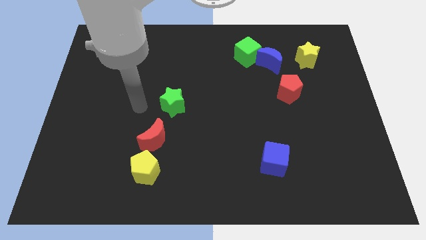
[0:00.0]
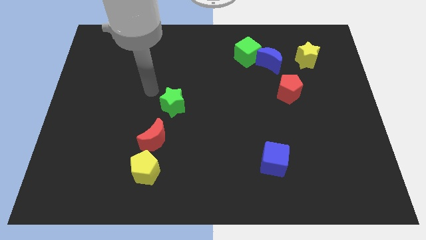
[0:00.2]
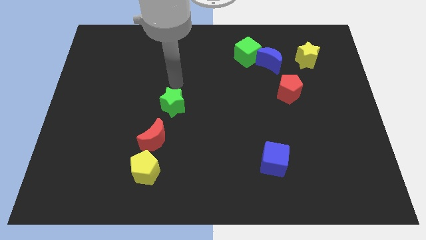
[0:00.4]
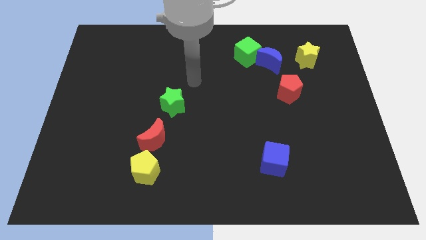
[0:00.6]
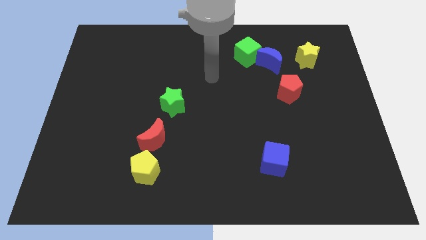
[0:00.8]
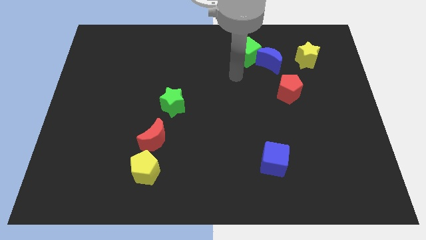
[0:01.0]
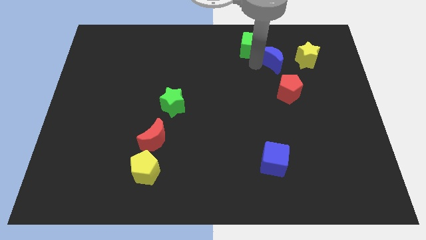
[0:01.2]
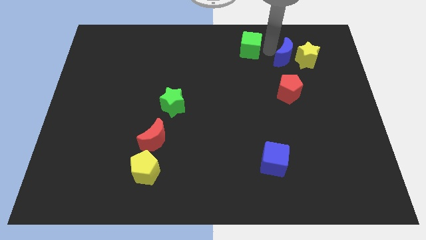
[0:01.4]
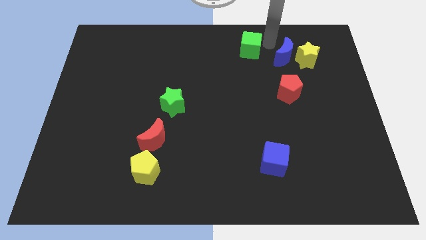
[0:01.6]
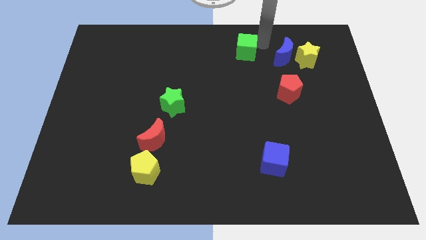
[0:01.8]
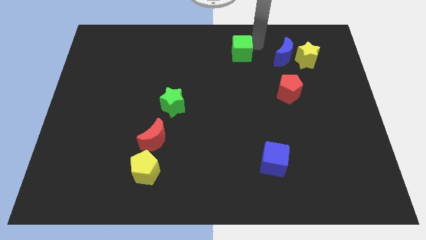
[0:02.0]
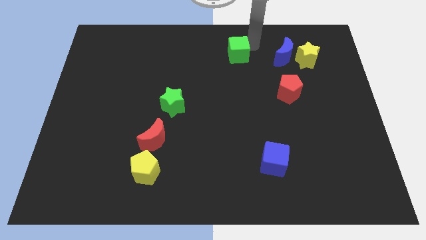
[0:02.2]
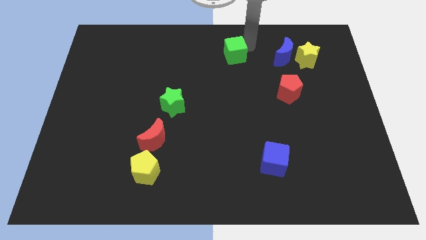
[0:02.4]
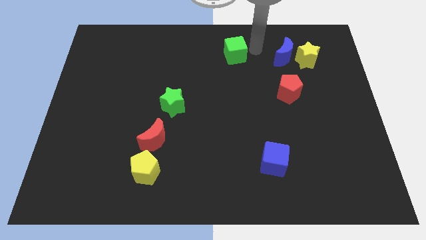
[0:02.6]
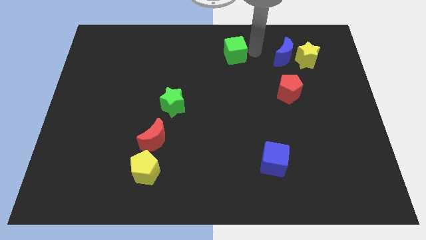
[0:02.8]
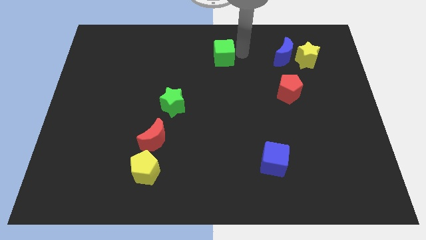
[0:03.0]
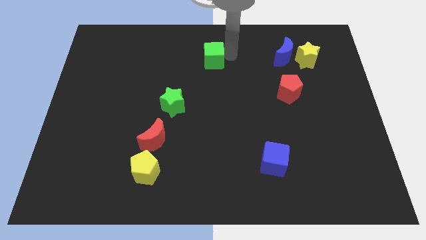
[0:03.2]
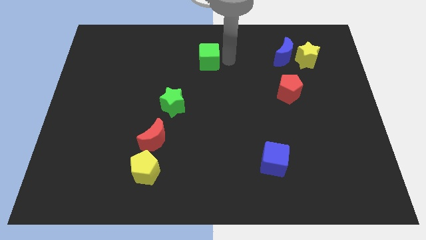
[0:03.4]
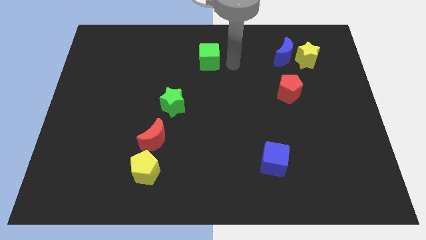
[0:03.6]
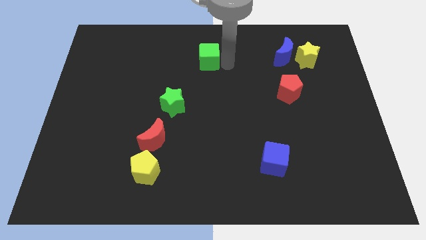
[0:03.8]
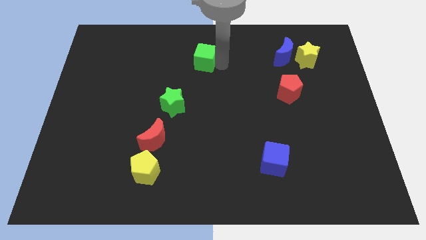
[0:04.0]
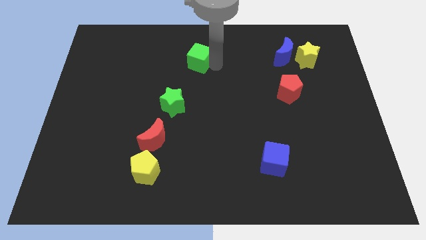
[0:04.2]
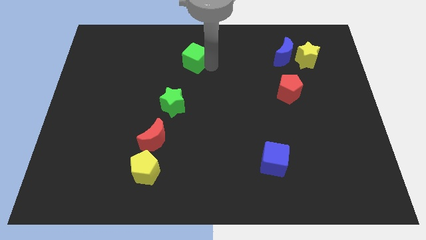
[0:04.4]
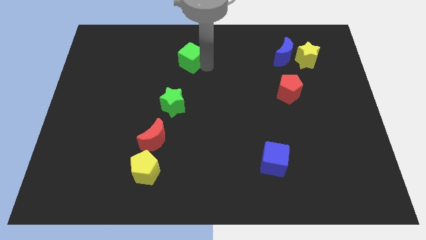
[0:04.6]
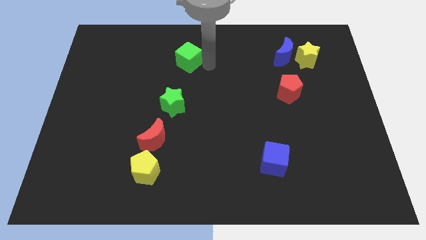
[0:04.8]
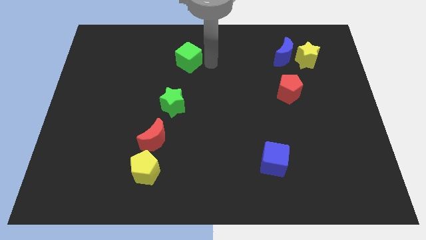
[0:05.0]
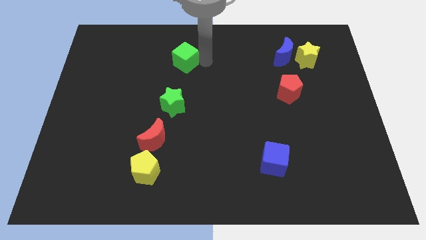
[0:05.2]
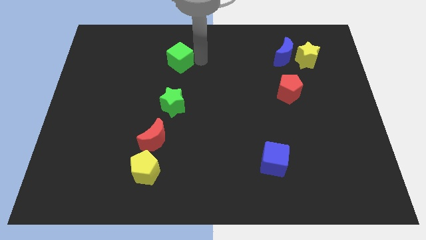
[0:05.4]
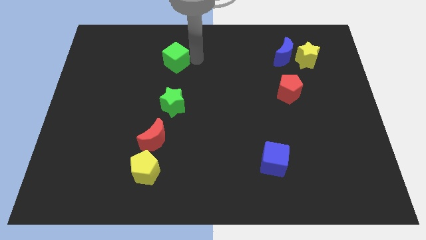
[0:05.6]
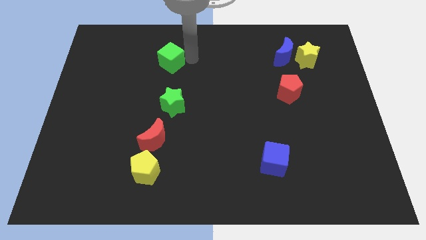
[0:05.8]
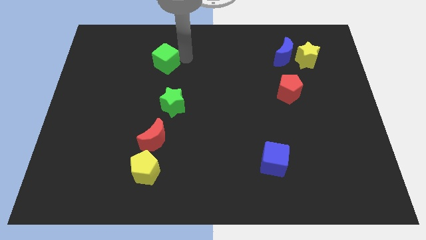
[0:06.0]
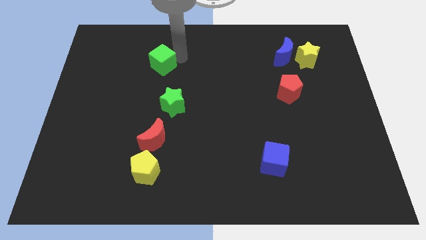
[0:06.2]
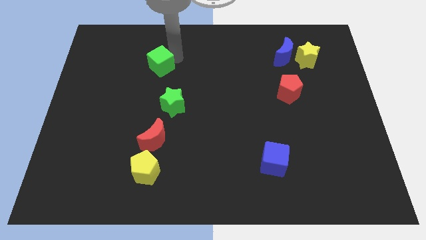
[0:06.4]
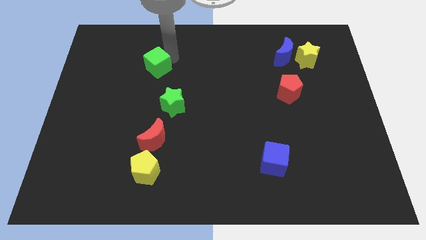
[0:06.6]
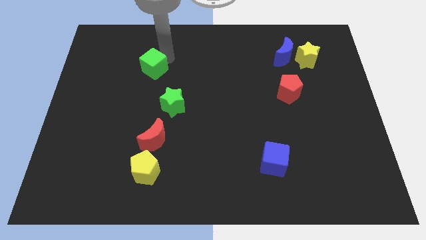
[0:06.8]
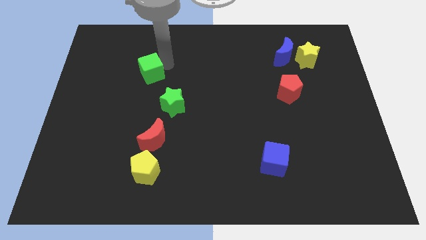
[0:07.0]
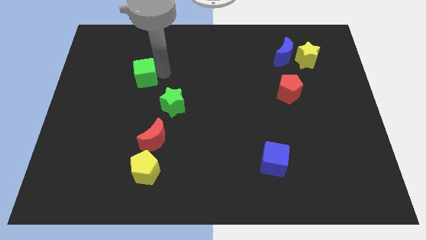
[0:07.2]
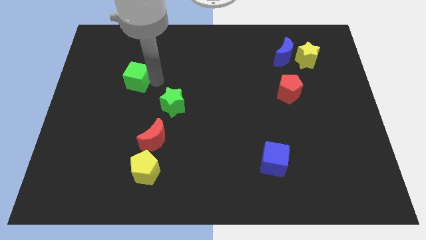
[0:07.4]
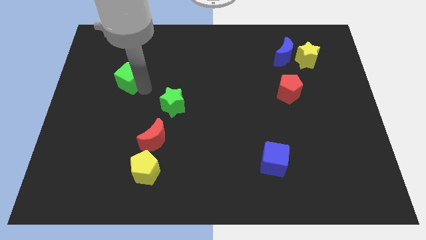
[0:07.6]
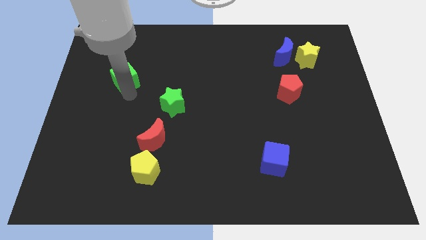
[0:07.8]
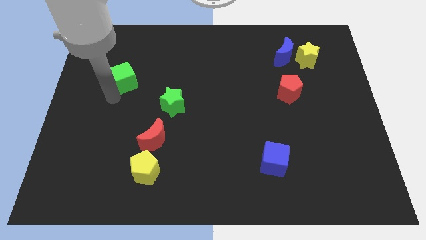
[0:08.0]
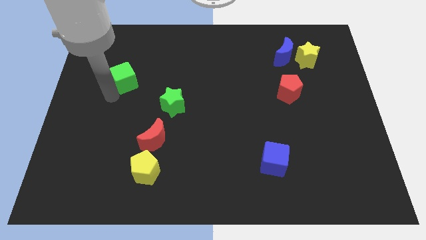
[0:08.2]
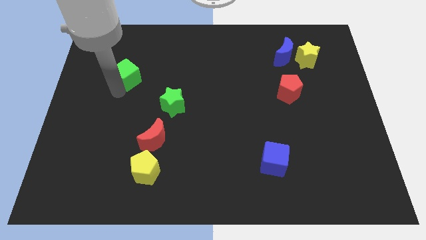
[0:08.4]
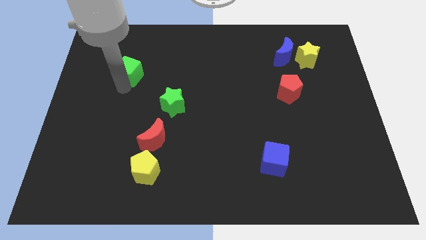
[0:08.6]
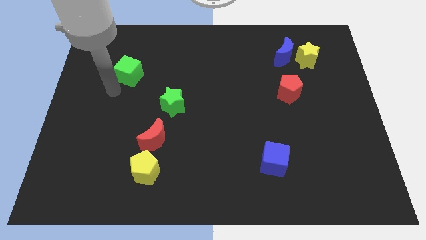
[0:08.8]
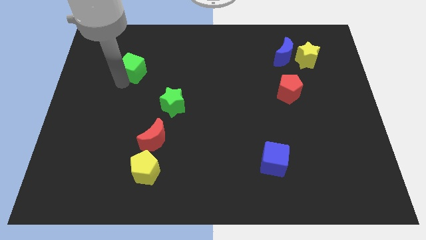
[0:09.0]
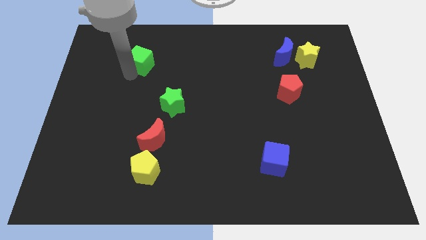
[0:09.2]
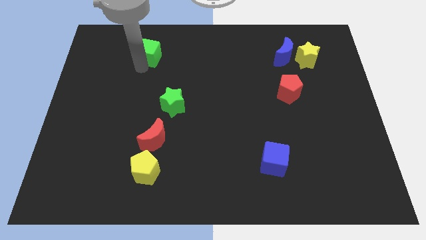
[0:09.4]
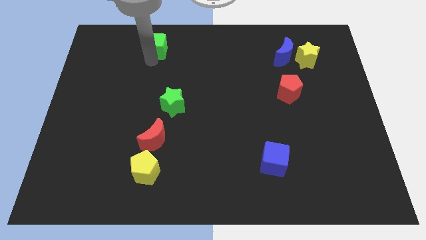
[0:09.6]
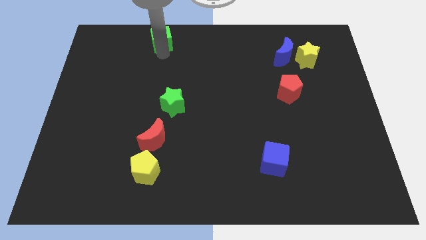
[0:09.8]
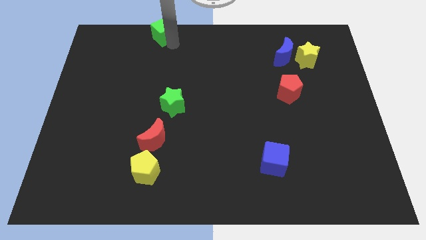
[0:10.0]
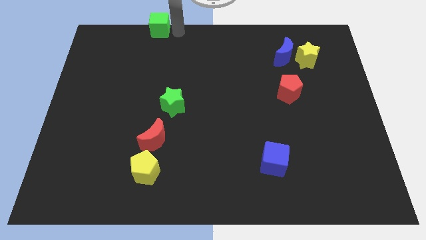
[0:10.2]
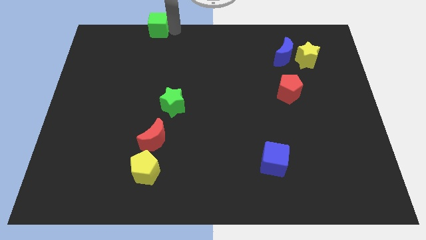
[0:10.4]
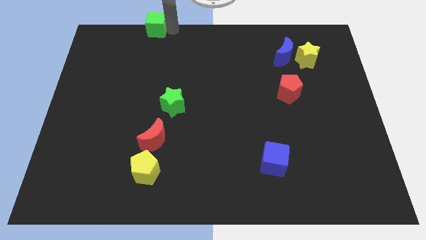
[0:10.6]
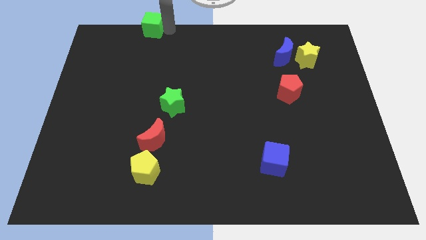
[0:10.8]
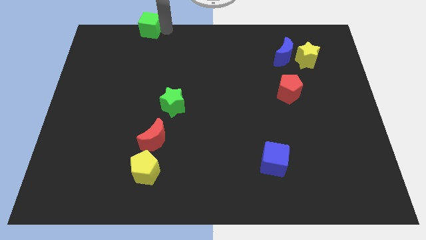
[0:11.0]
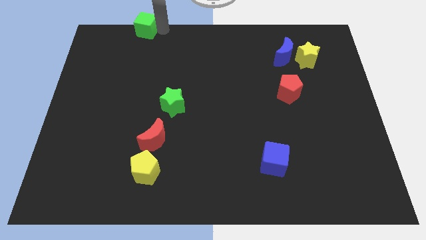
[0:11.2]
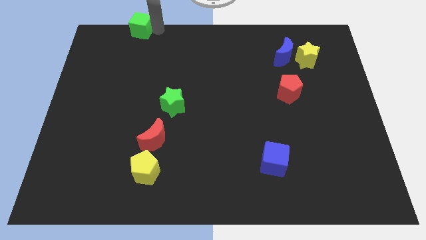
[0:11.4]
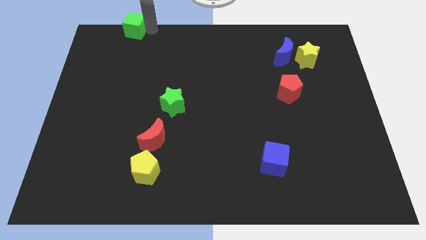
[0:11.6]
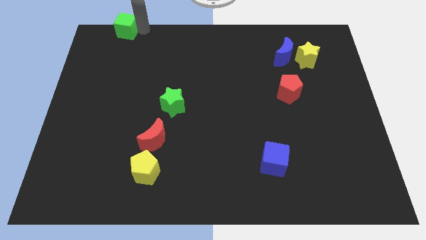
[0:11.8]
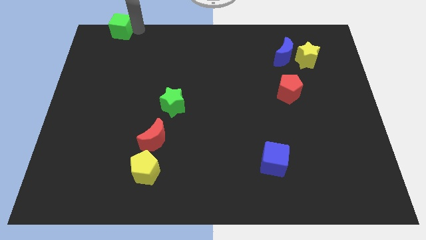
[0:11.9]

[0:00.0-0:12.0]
move the green cube to the top left of the board

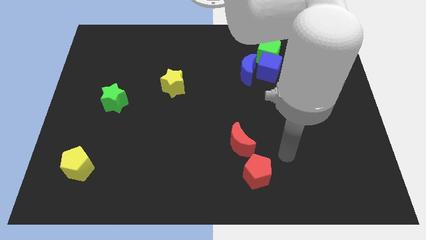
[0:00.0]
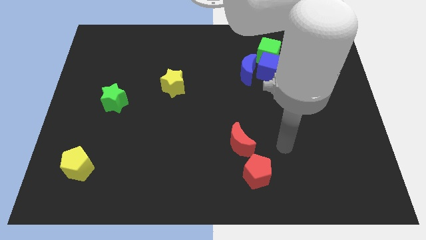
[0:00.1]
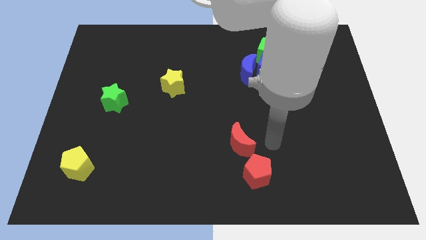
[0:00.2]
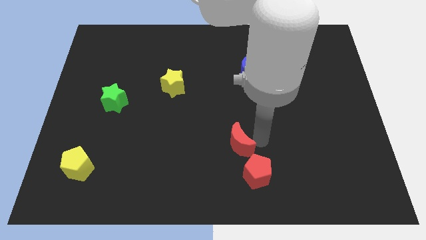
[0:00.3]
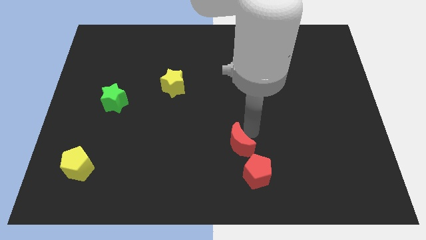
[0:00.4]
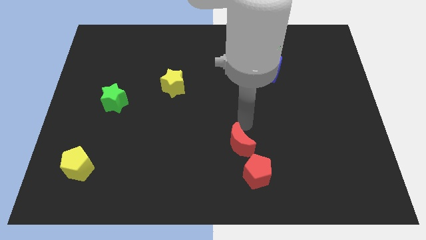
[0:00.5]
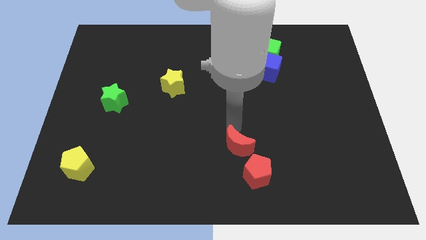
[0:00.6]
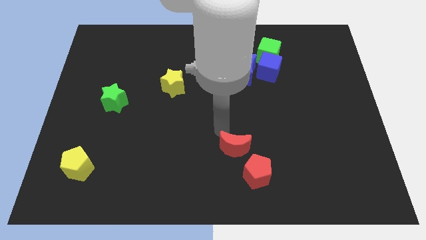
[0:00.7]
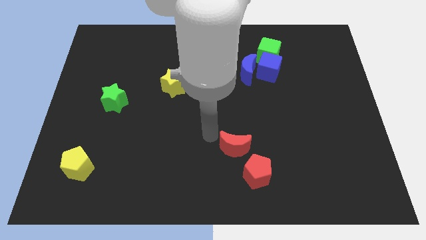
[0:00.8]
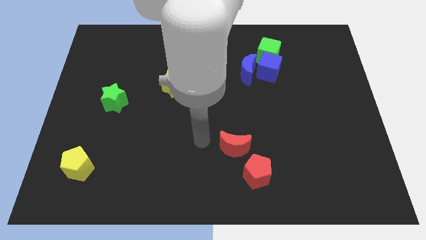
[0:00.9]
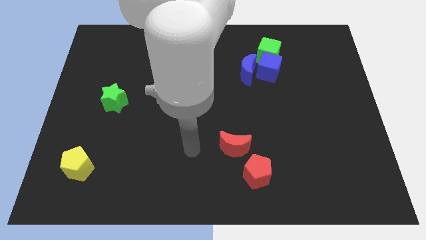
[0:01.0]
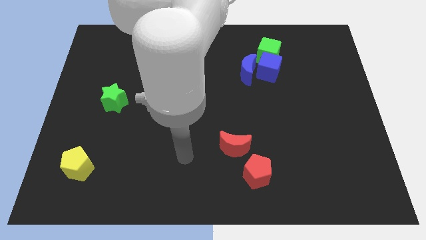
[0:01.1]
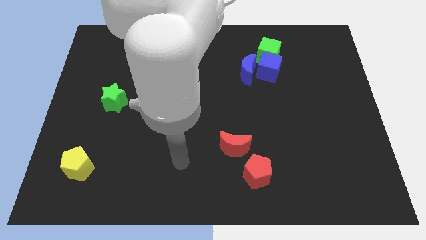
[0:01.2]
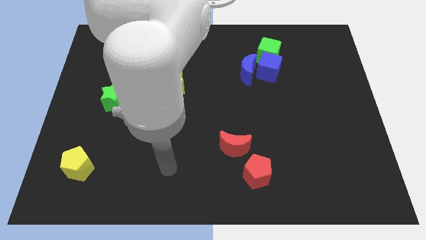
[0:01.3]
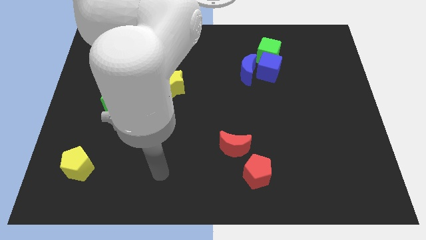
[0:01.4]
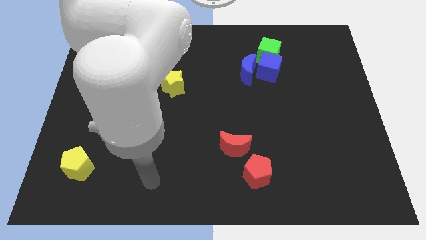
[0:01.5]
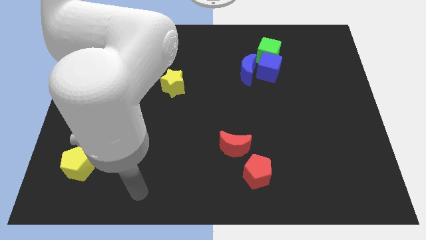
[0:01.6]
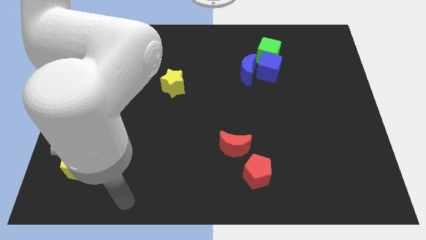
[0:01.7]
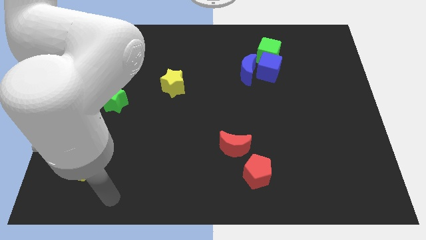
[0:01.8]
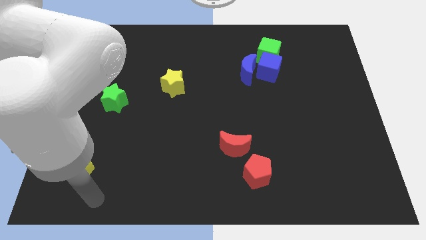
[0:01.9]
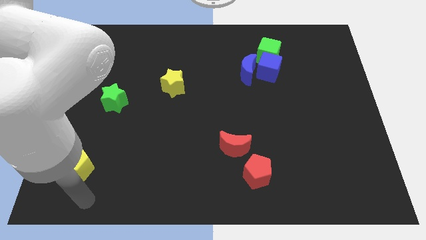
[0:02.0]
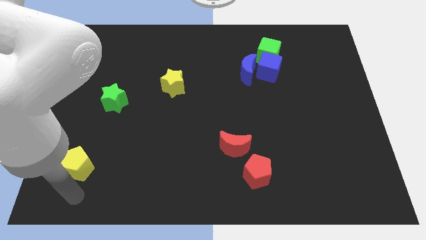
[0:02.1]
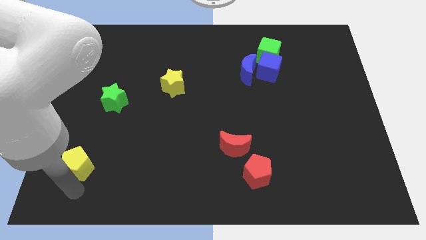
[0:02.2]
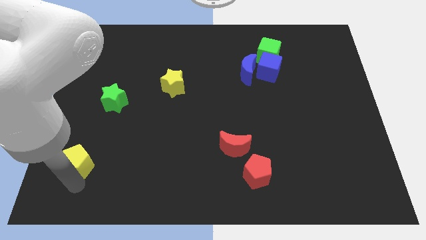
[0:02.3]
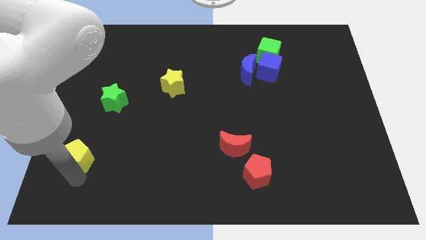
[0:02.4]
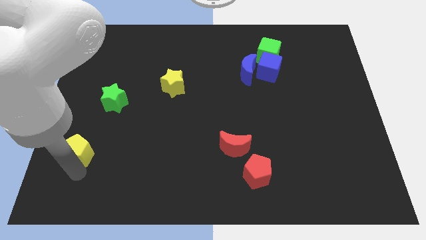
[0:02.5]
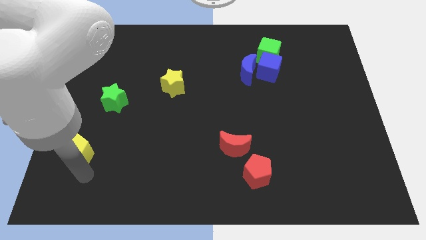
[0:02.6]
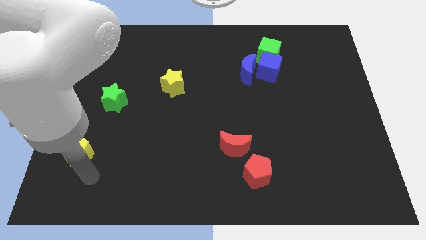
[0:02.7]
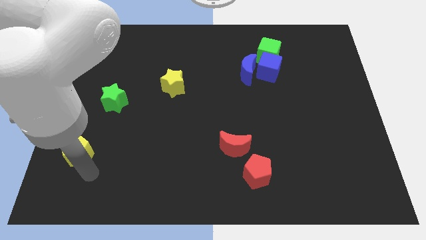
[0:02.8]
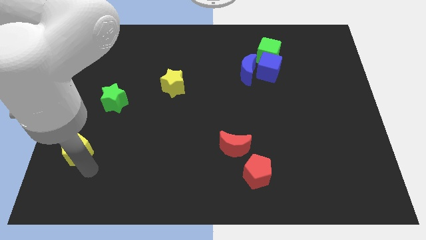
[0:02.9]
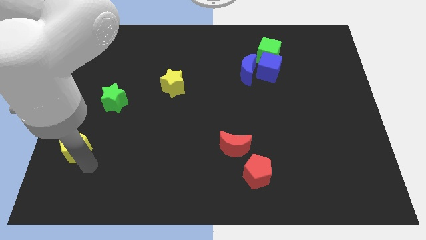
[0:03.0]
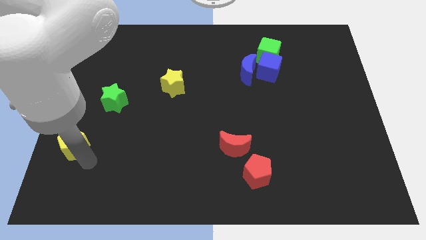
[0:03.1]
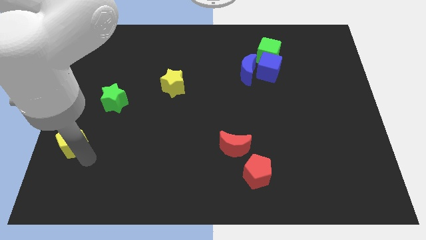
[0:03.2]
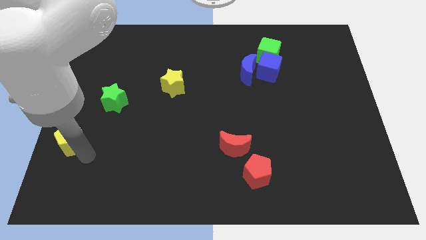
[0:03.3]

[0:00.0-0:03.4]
push the yellow pentagon to the center left
